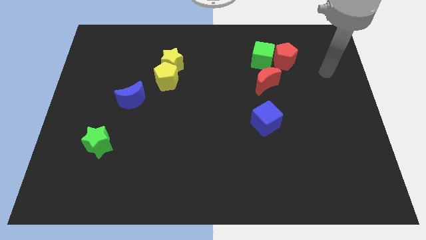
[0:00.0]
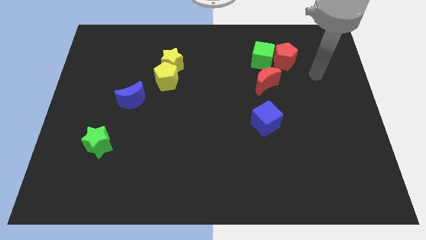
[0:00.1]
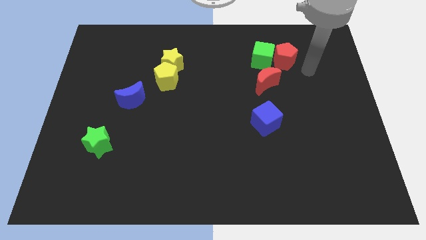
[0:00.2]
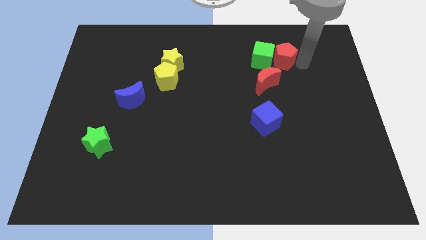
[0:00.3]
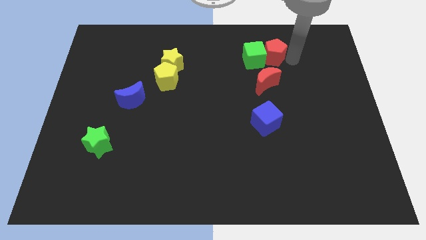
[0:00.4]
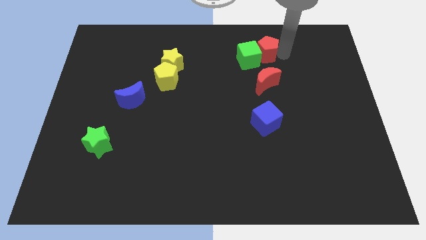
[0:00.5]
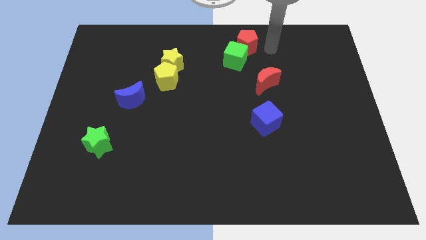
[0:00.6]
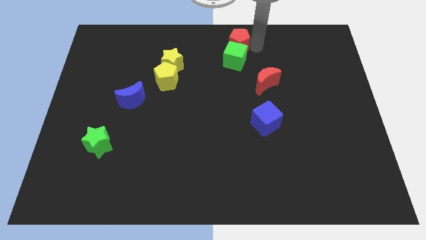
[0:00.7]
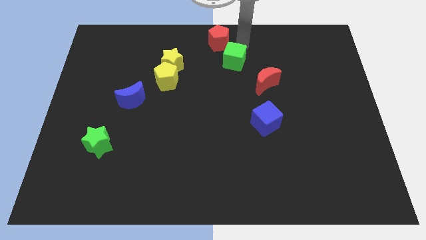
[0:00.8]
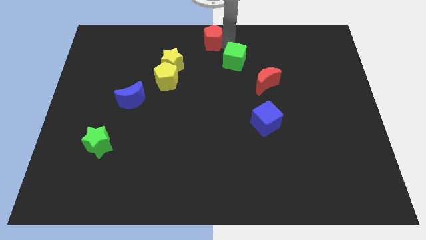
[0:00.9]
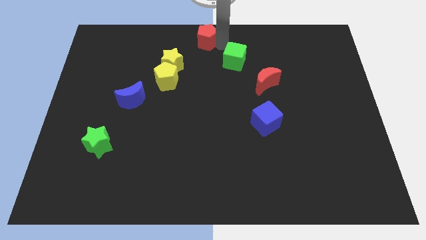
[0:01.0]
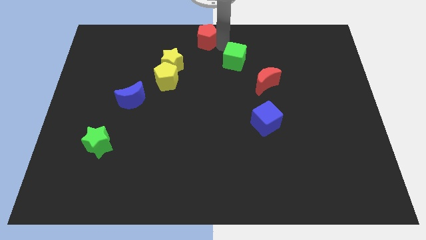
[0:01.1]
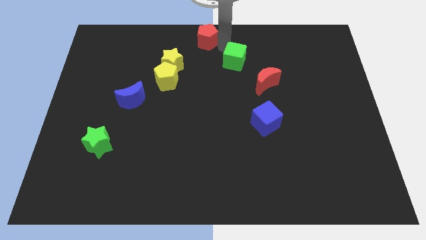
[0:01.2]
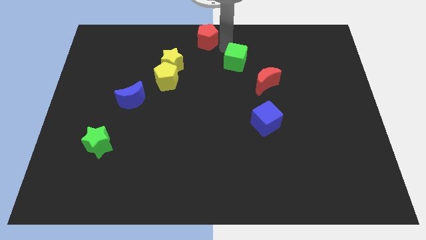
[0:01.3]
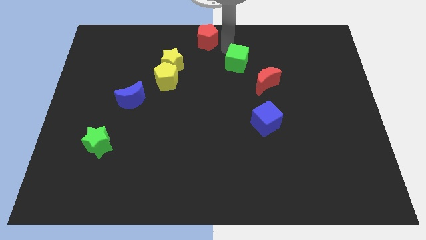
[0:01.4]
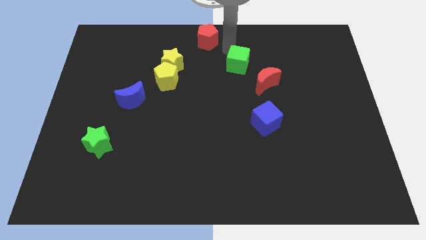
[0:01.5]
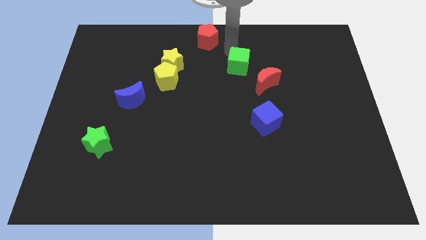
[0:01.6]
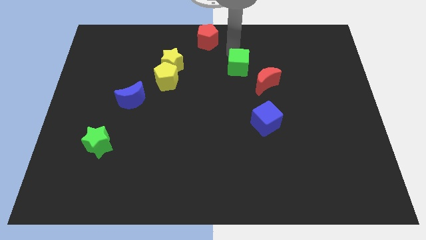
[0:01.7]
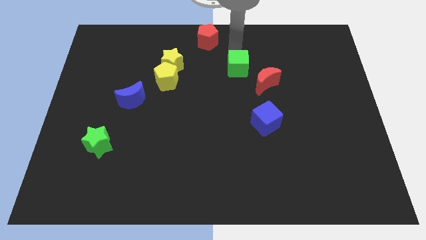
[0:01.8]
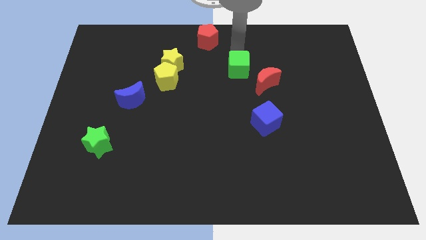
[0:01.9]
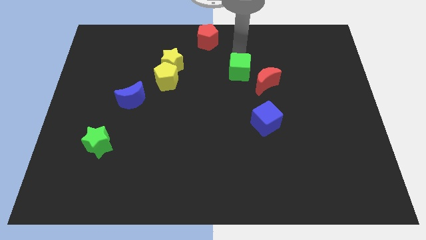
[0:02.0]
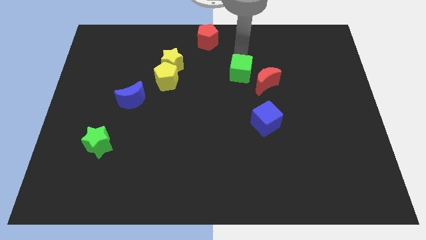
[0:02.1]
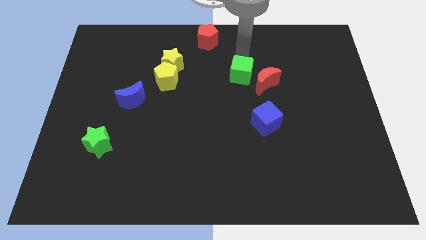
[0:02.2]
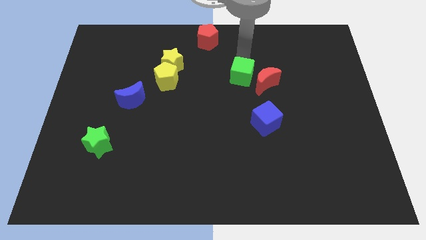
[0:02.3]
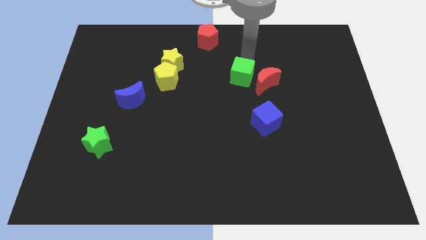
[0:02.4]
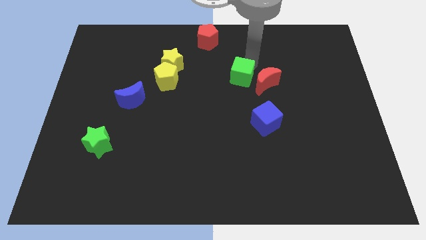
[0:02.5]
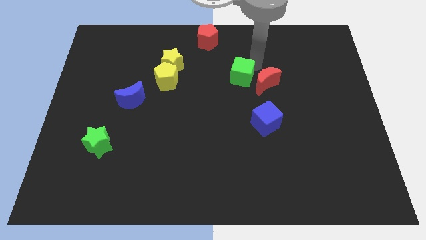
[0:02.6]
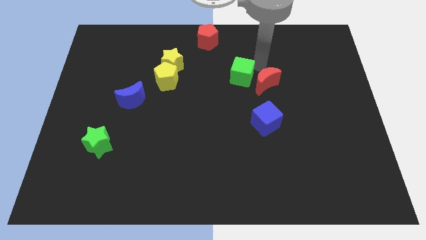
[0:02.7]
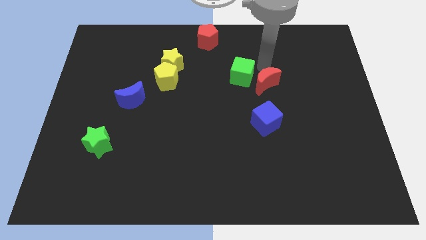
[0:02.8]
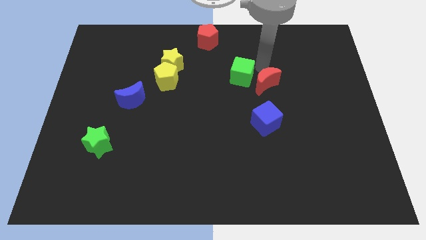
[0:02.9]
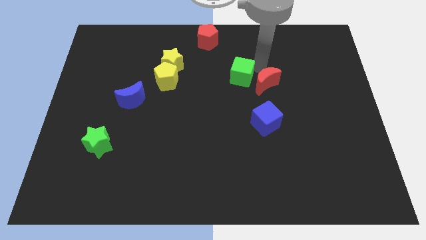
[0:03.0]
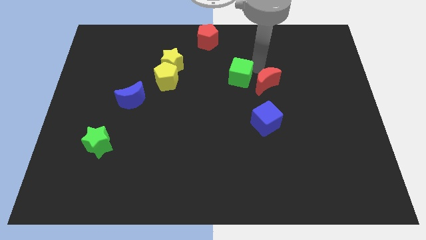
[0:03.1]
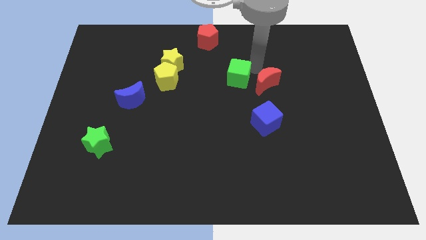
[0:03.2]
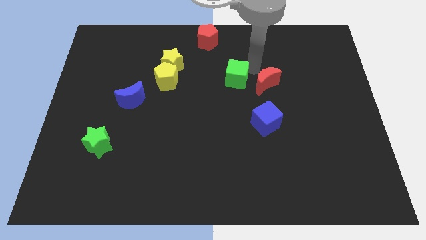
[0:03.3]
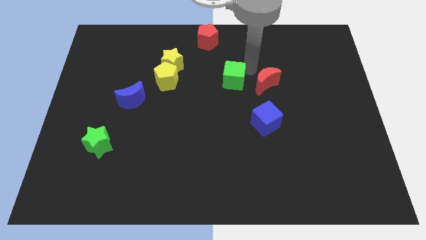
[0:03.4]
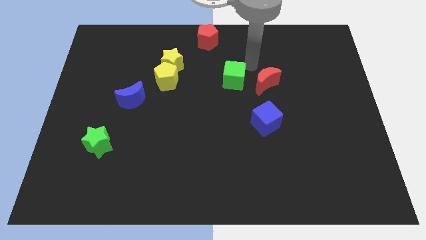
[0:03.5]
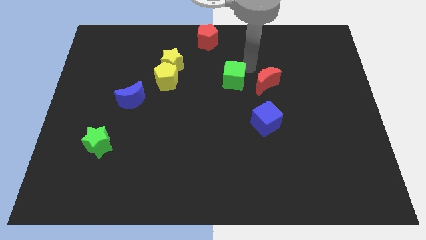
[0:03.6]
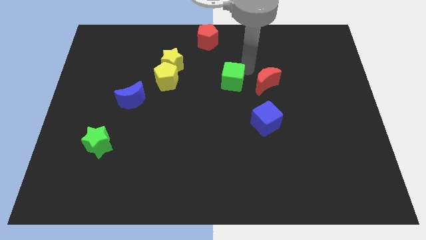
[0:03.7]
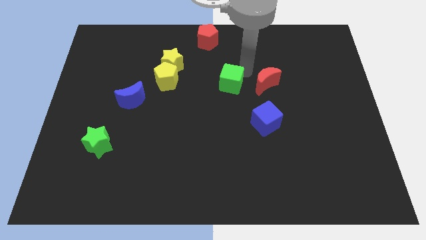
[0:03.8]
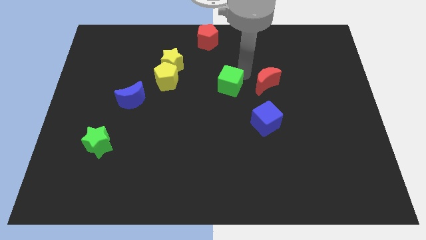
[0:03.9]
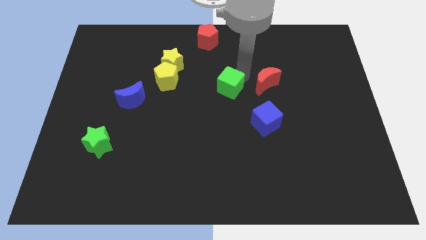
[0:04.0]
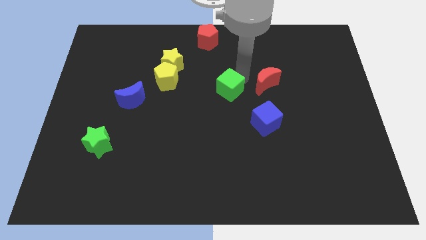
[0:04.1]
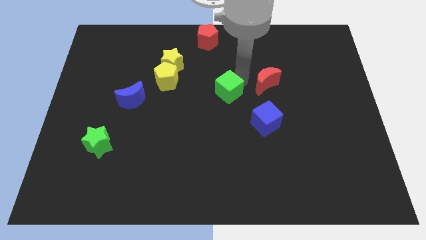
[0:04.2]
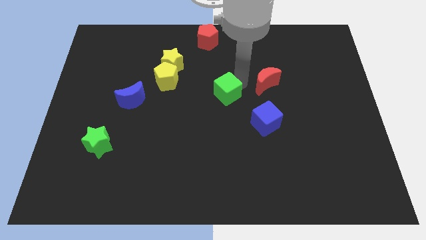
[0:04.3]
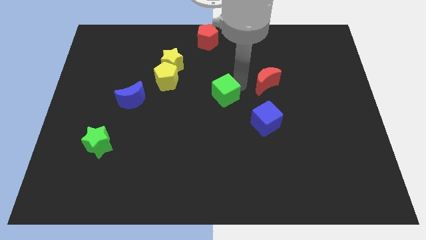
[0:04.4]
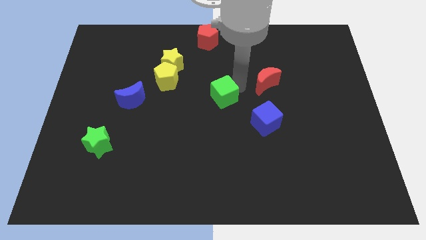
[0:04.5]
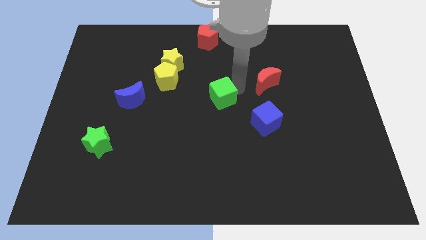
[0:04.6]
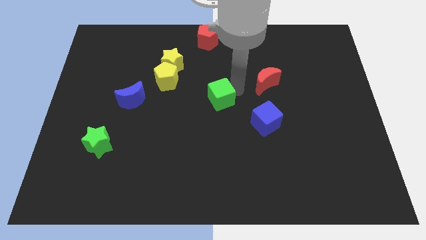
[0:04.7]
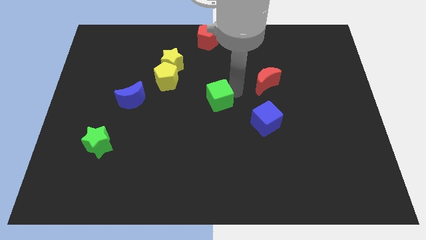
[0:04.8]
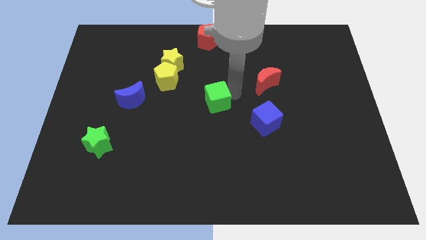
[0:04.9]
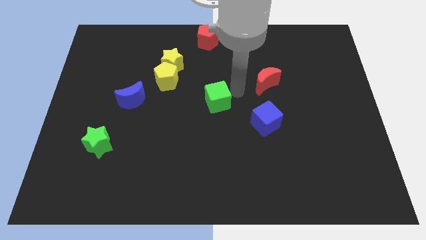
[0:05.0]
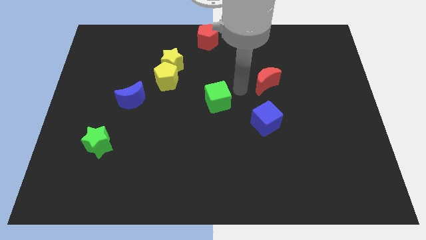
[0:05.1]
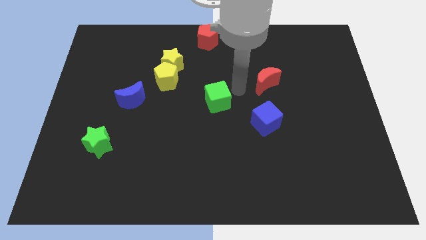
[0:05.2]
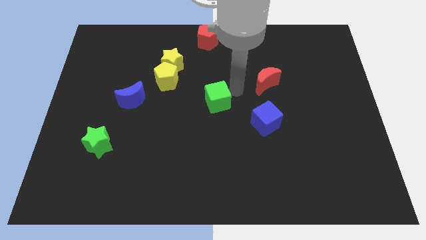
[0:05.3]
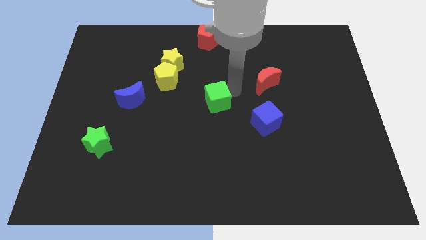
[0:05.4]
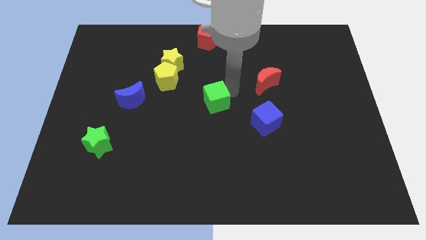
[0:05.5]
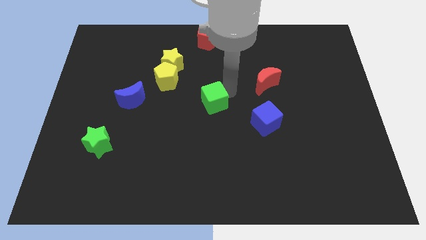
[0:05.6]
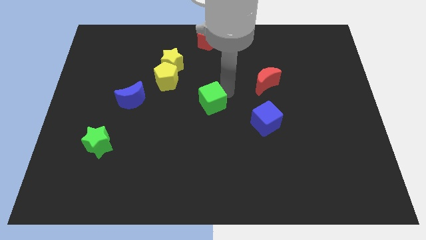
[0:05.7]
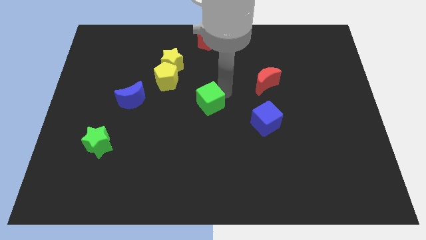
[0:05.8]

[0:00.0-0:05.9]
slide the green cube downwards and left diagonally

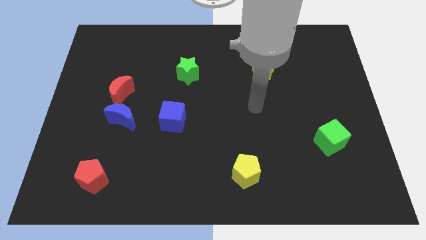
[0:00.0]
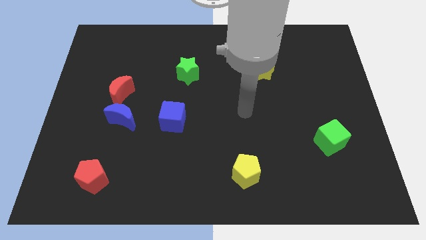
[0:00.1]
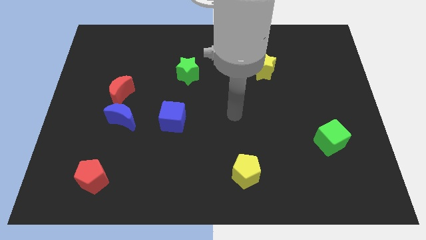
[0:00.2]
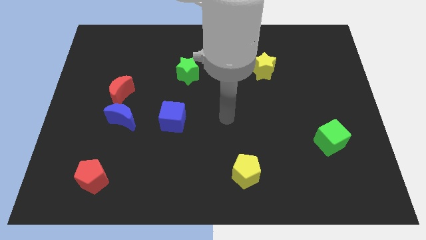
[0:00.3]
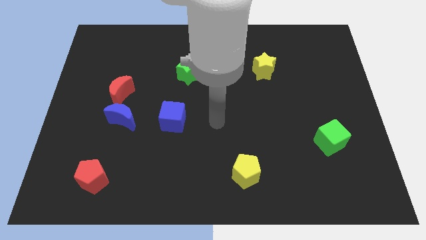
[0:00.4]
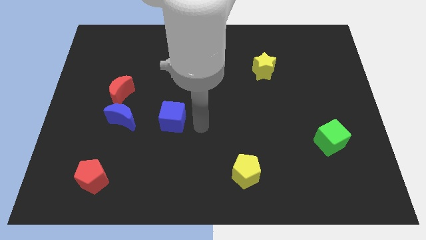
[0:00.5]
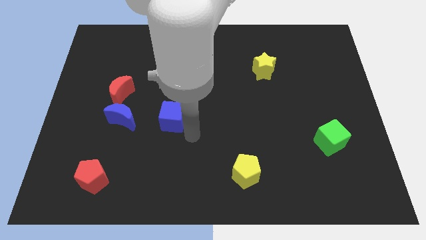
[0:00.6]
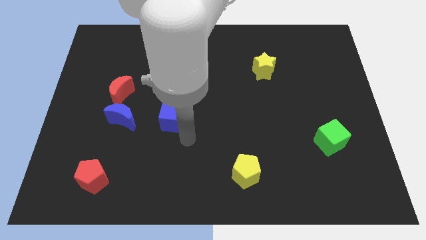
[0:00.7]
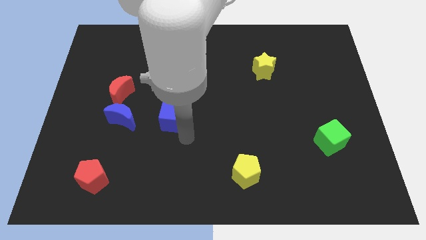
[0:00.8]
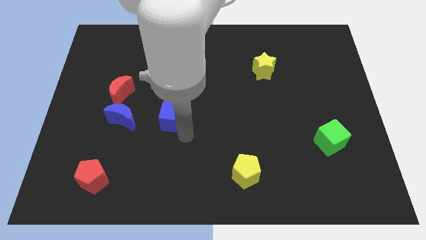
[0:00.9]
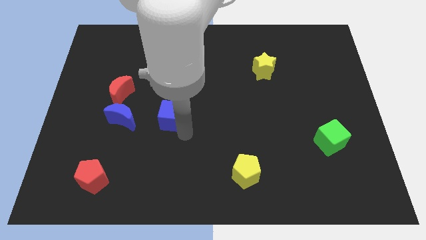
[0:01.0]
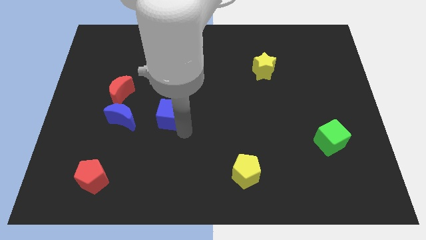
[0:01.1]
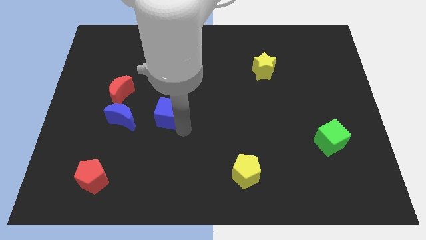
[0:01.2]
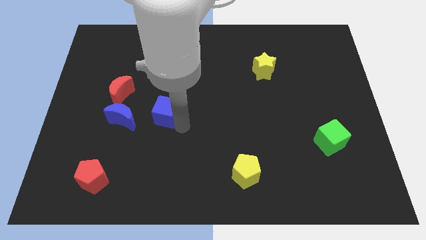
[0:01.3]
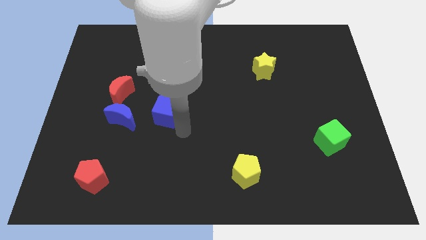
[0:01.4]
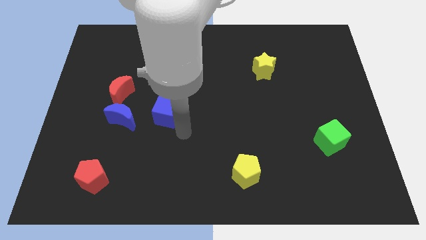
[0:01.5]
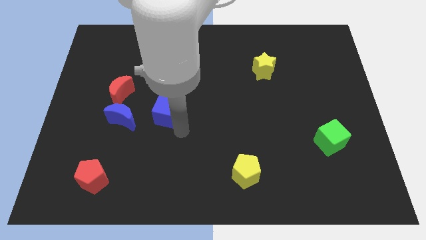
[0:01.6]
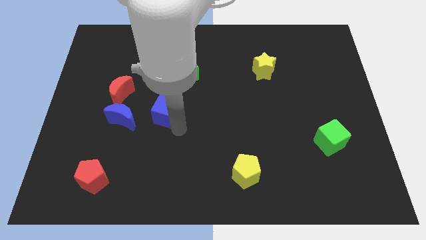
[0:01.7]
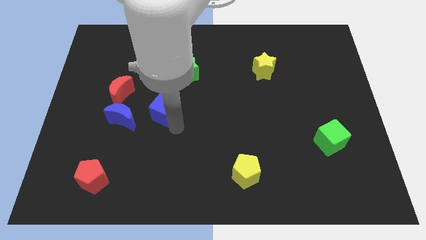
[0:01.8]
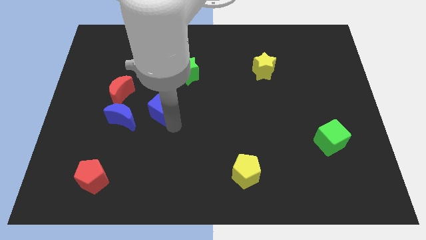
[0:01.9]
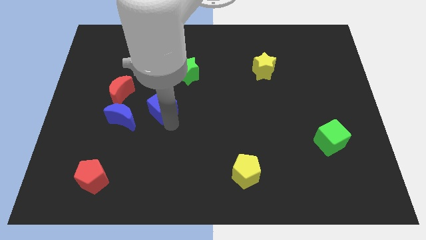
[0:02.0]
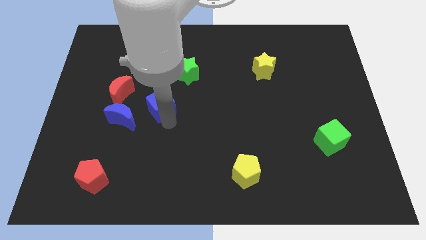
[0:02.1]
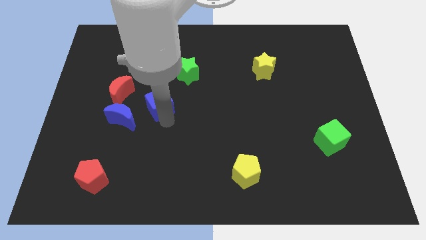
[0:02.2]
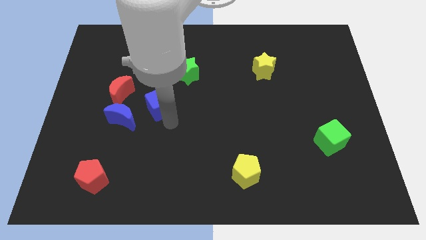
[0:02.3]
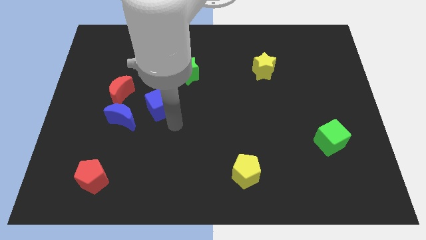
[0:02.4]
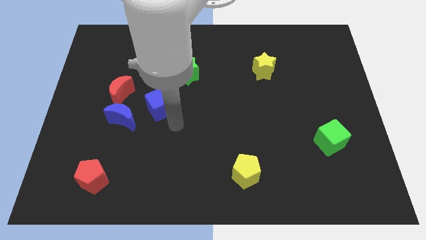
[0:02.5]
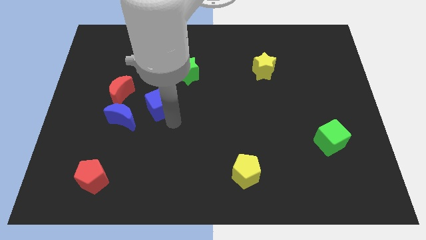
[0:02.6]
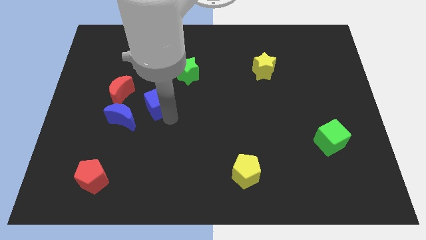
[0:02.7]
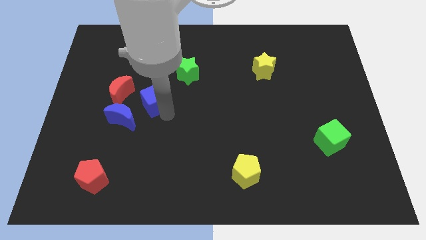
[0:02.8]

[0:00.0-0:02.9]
slide the blue cube upwards and left a little bit
